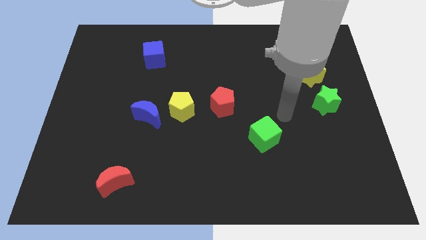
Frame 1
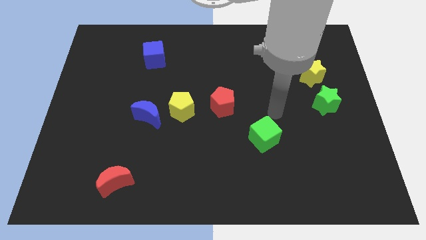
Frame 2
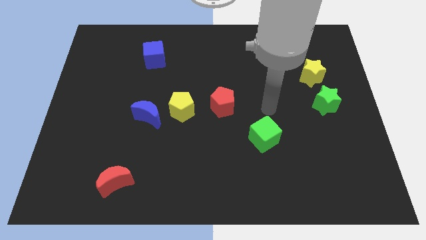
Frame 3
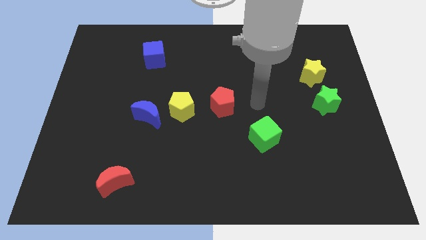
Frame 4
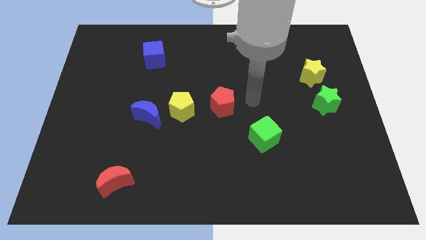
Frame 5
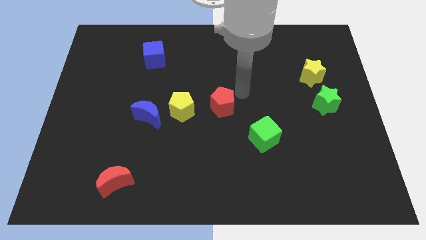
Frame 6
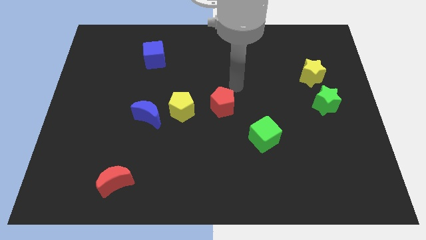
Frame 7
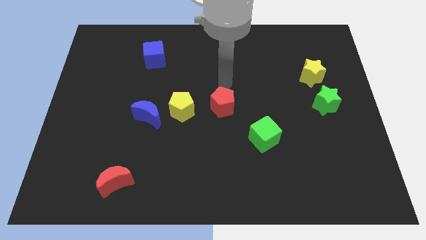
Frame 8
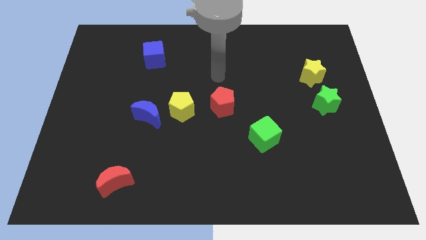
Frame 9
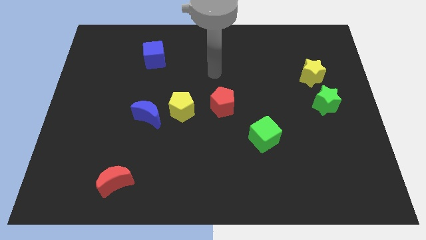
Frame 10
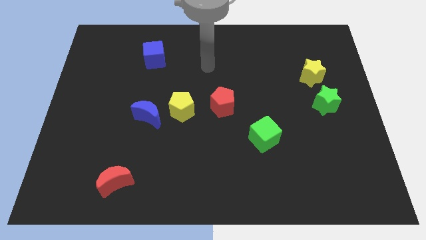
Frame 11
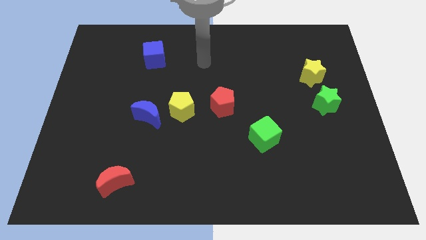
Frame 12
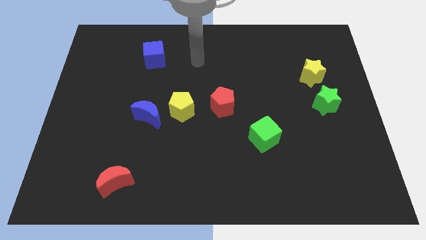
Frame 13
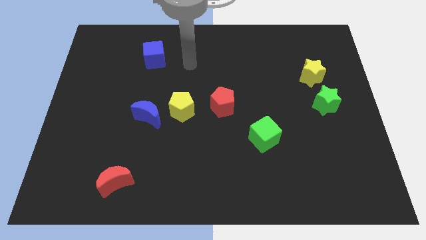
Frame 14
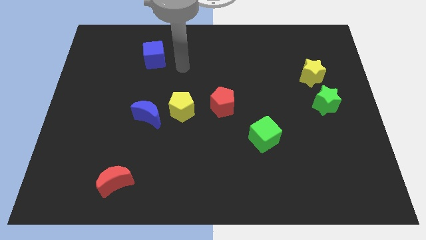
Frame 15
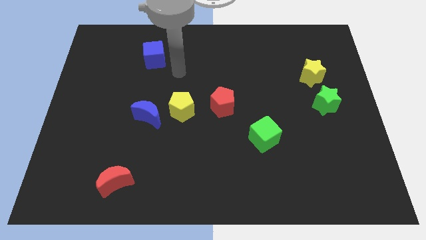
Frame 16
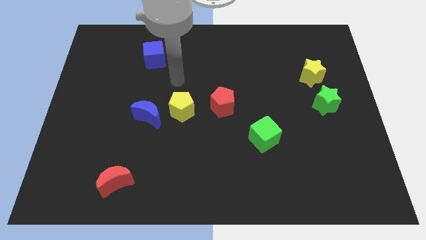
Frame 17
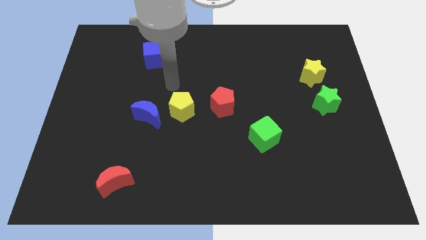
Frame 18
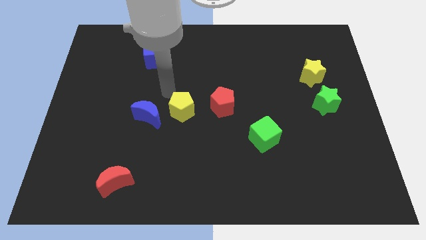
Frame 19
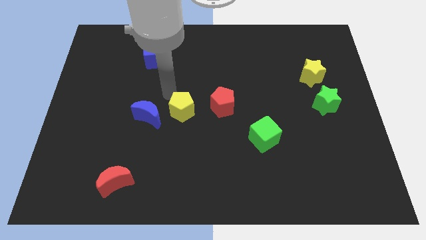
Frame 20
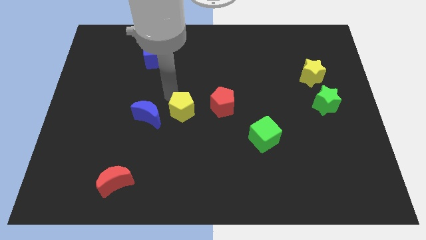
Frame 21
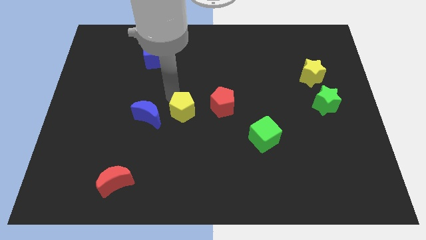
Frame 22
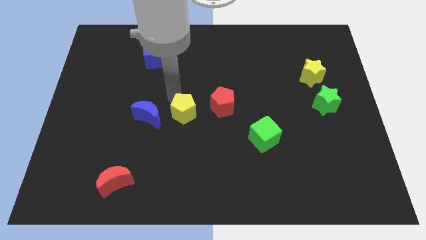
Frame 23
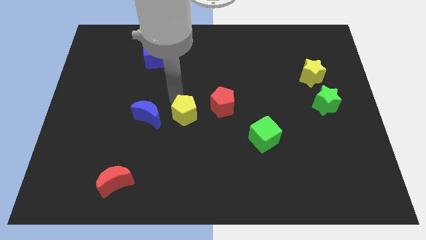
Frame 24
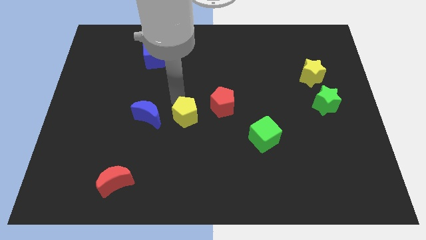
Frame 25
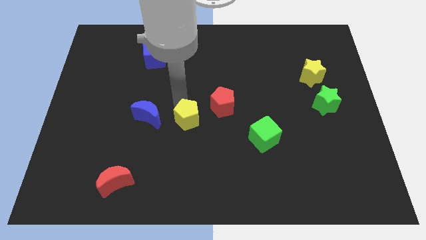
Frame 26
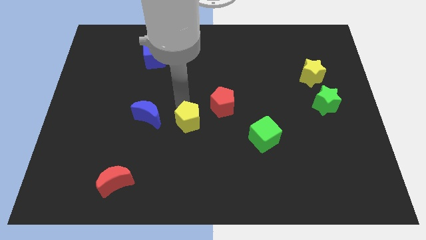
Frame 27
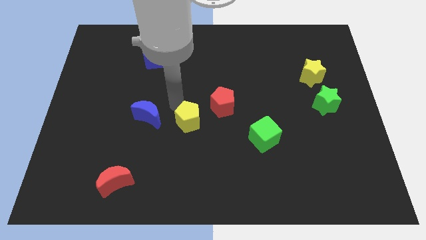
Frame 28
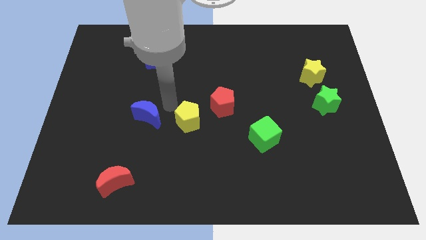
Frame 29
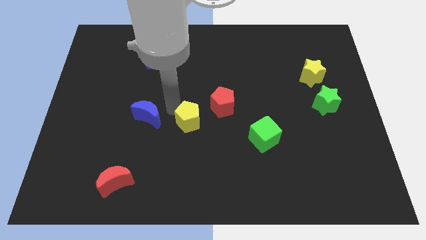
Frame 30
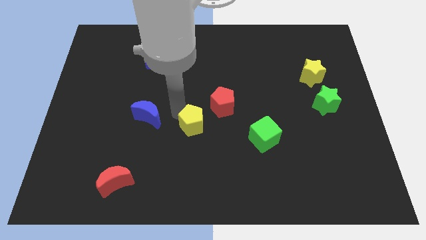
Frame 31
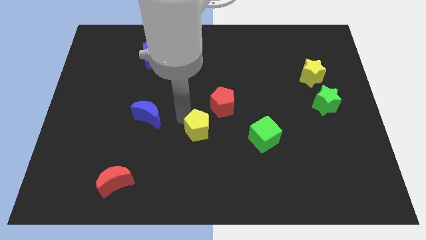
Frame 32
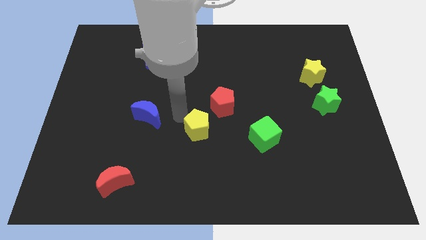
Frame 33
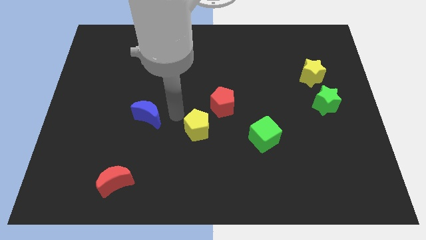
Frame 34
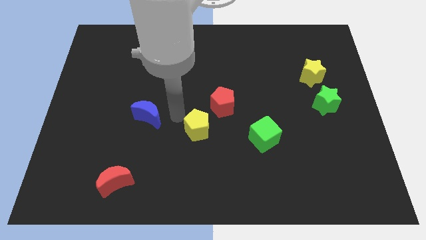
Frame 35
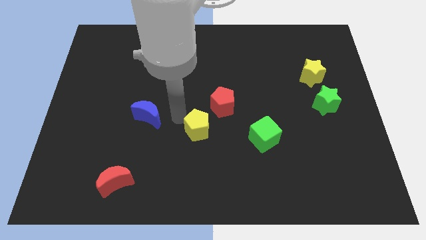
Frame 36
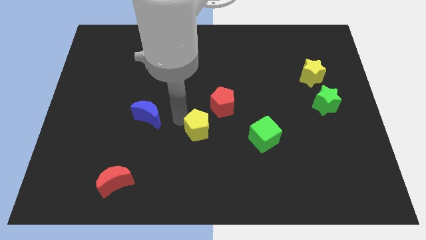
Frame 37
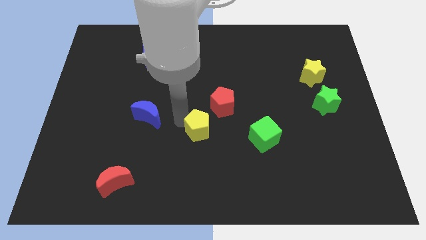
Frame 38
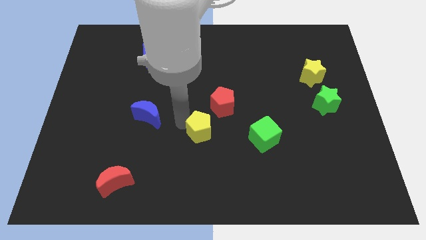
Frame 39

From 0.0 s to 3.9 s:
slightly slide the yellow pentagon downwards and then to the right

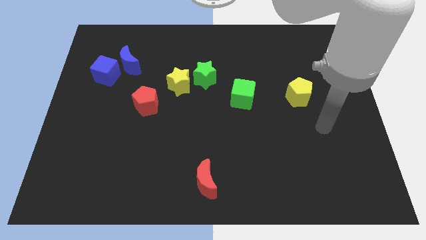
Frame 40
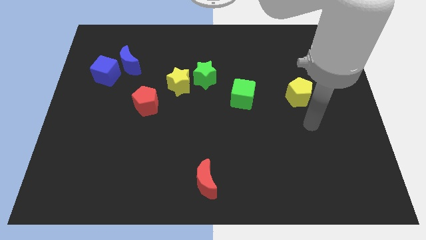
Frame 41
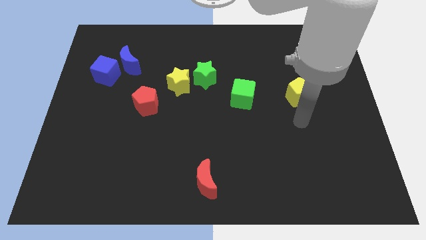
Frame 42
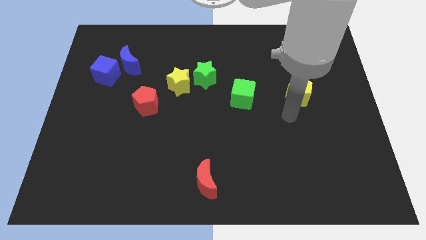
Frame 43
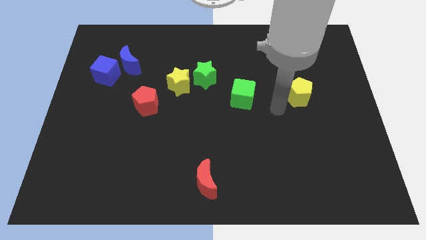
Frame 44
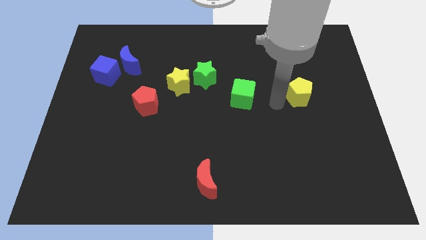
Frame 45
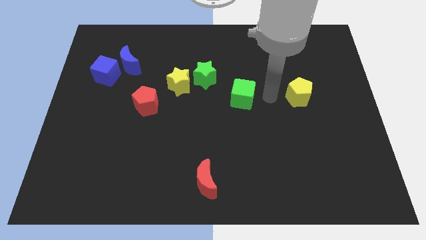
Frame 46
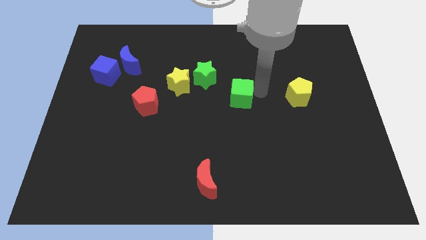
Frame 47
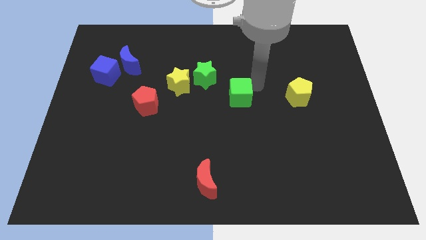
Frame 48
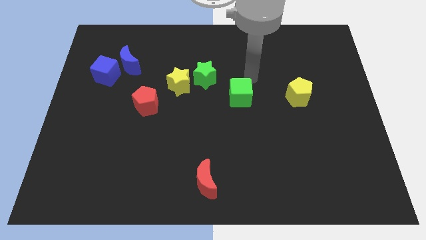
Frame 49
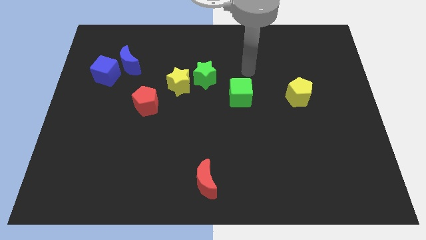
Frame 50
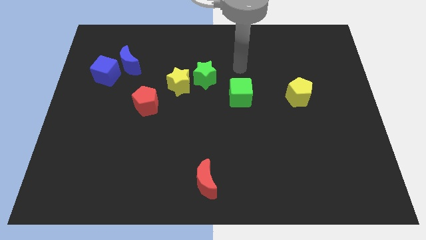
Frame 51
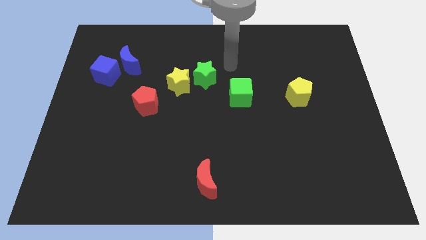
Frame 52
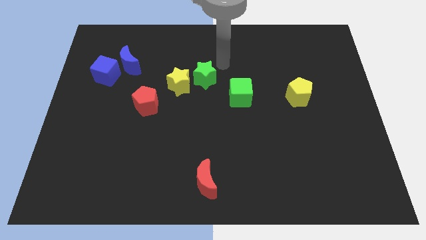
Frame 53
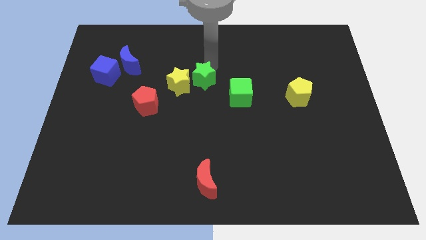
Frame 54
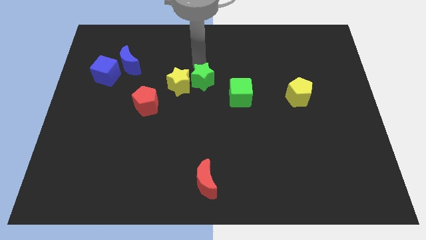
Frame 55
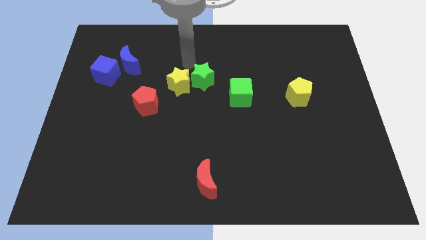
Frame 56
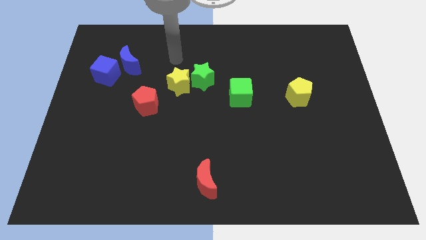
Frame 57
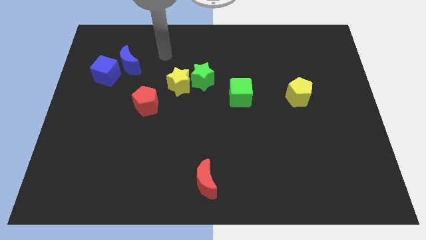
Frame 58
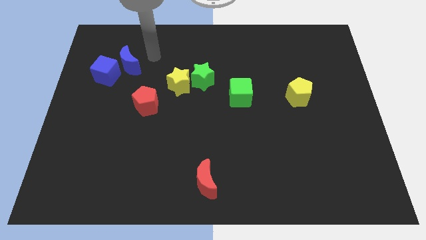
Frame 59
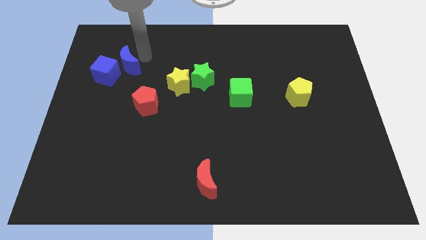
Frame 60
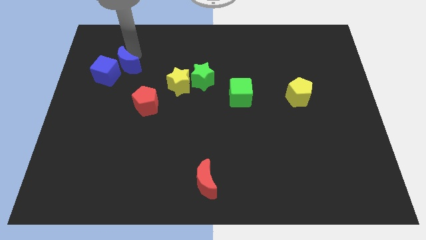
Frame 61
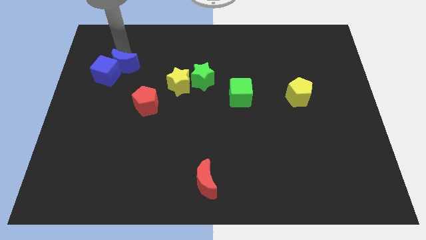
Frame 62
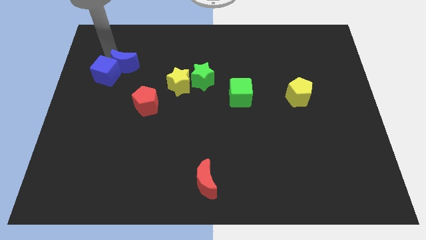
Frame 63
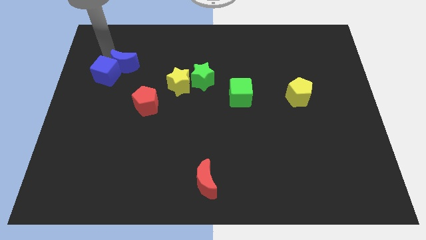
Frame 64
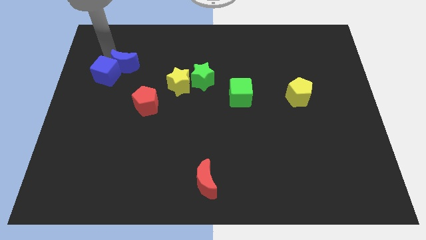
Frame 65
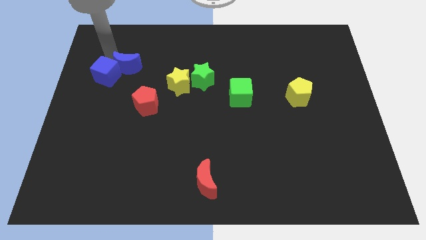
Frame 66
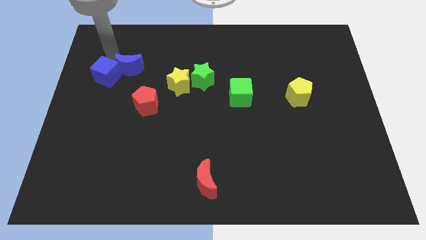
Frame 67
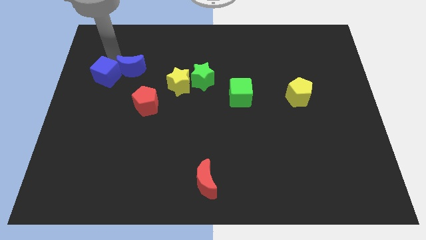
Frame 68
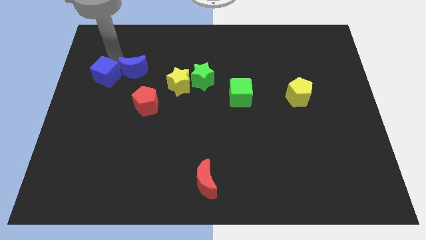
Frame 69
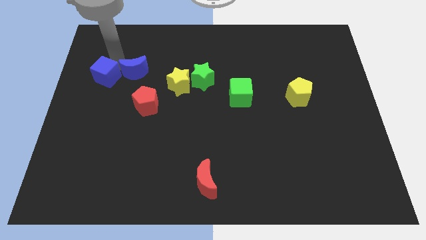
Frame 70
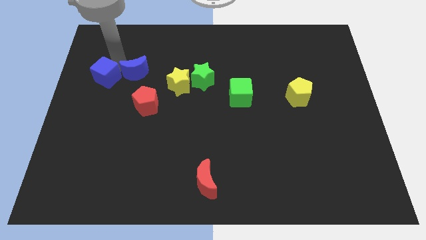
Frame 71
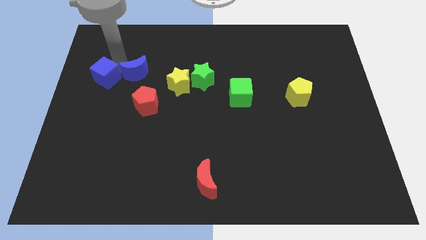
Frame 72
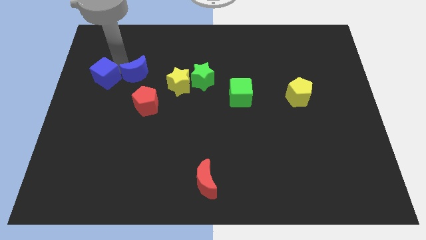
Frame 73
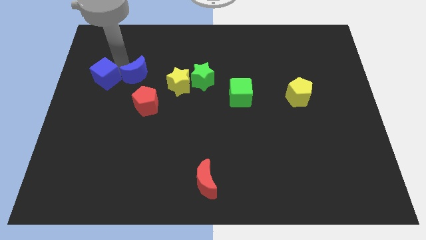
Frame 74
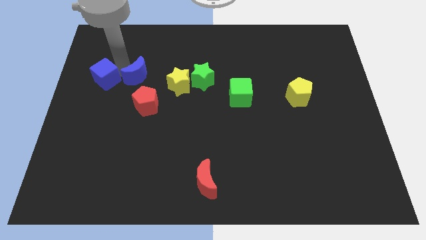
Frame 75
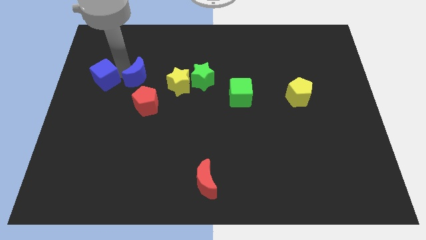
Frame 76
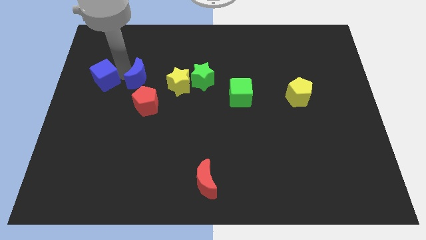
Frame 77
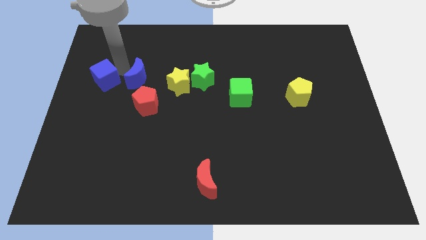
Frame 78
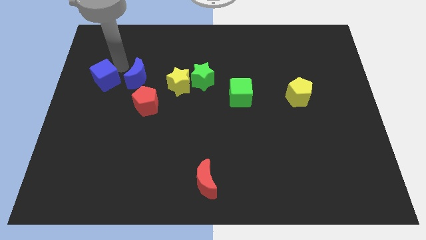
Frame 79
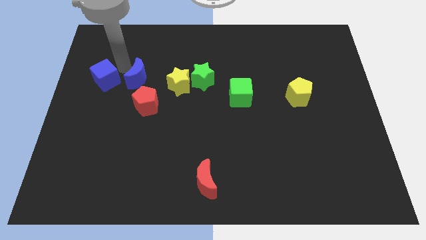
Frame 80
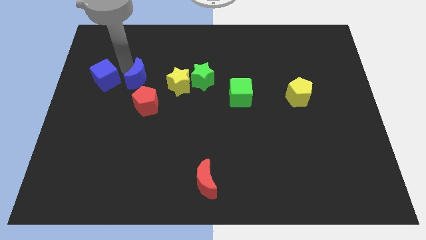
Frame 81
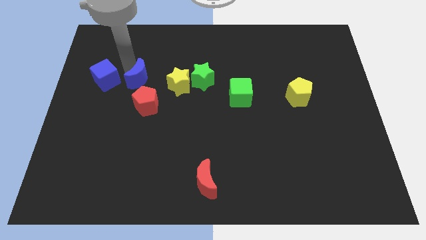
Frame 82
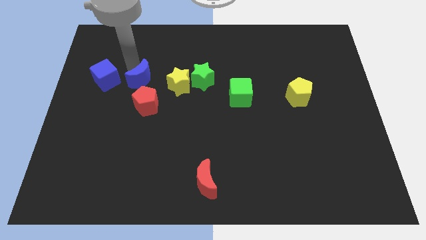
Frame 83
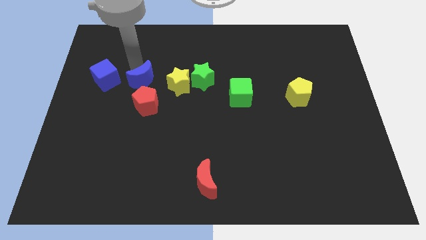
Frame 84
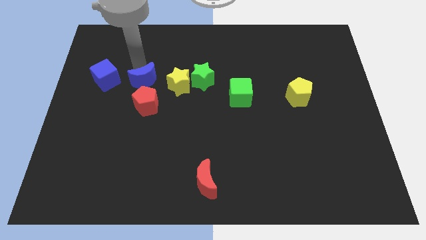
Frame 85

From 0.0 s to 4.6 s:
slightly slide the blue moon downwards and right diagonally
